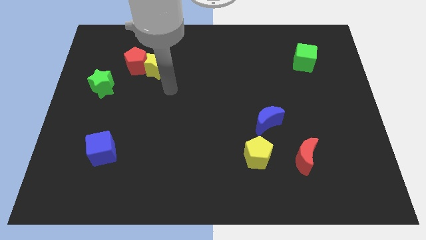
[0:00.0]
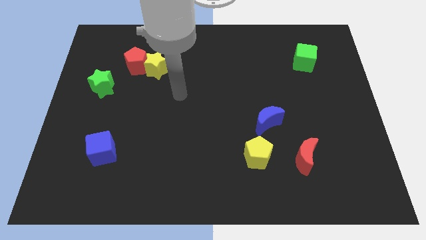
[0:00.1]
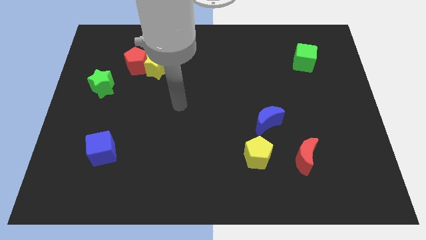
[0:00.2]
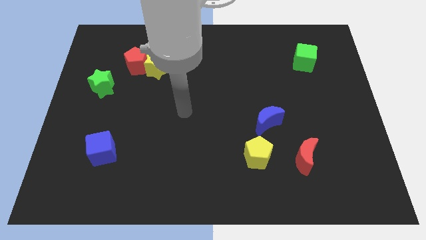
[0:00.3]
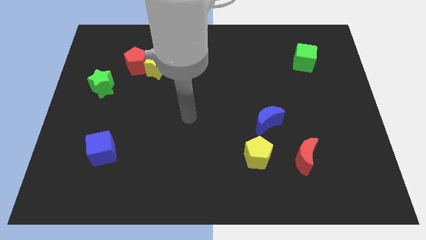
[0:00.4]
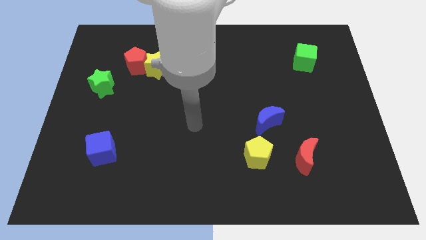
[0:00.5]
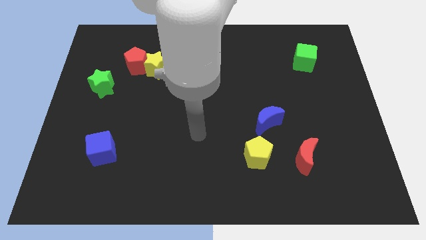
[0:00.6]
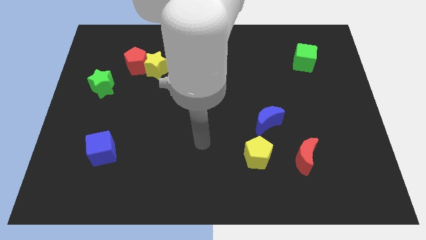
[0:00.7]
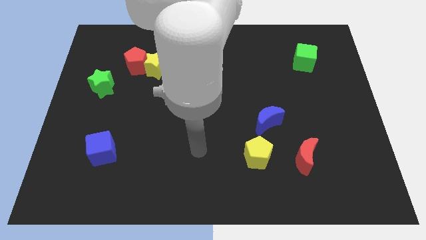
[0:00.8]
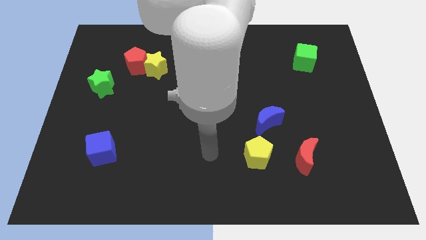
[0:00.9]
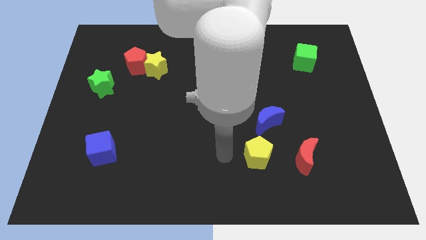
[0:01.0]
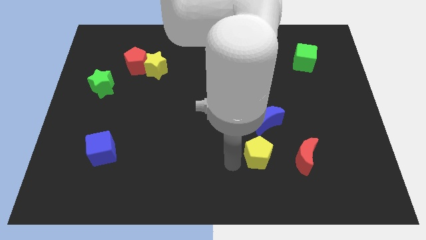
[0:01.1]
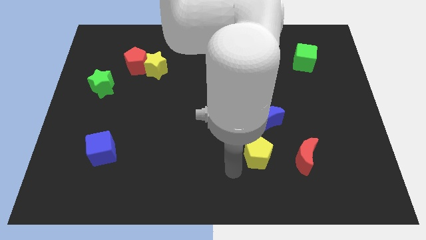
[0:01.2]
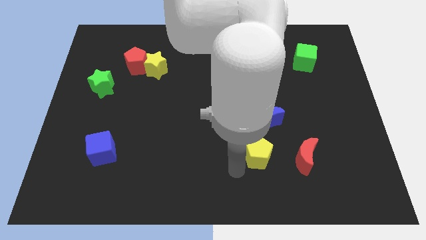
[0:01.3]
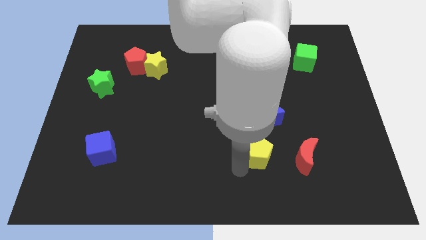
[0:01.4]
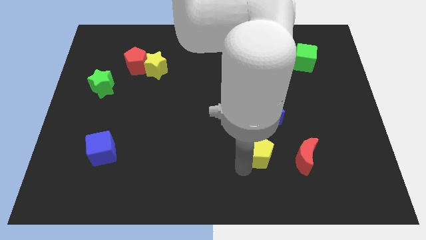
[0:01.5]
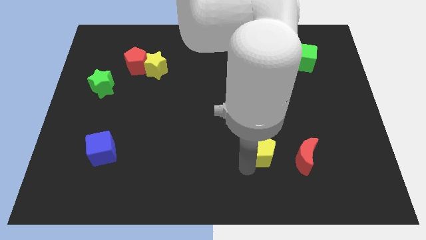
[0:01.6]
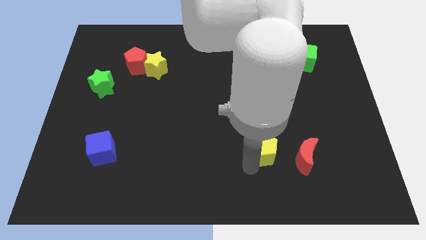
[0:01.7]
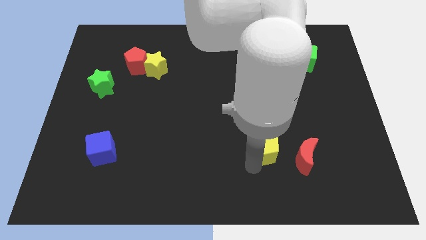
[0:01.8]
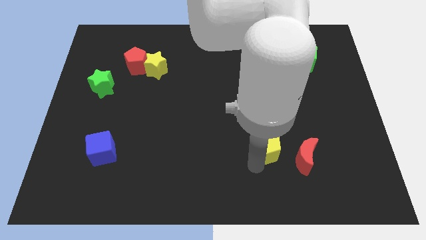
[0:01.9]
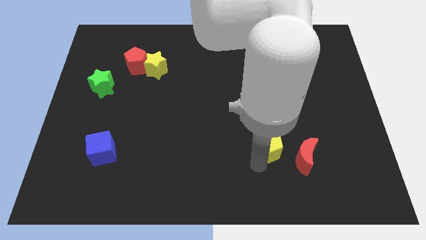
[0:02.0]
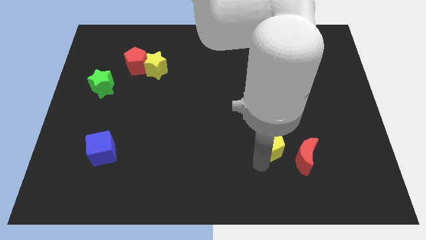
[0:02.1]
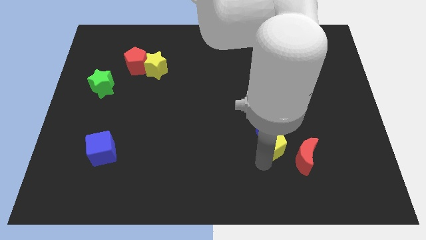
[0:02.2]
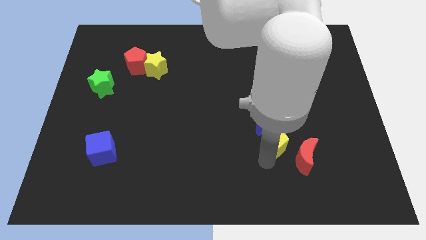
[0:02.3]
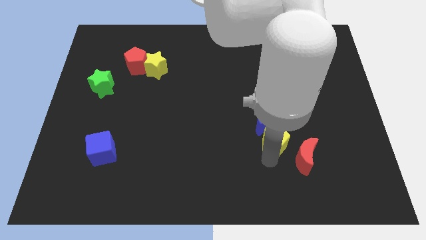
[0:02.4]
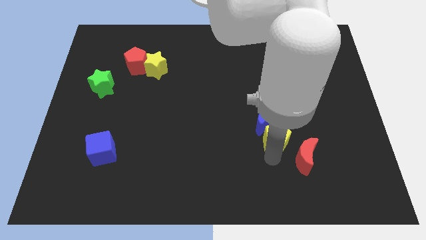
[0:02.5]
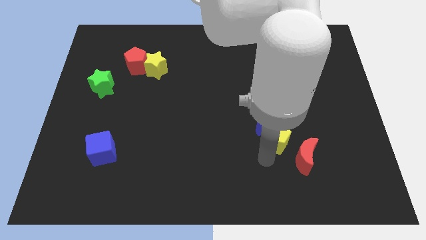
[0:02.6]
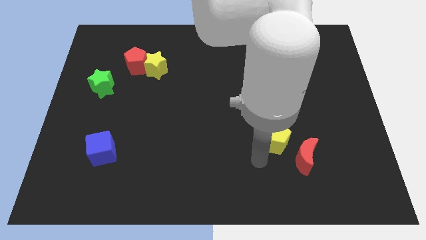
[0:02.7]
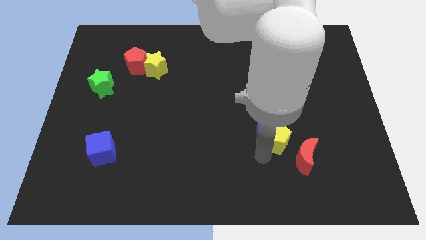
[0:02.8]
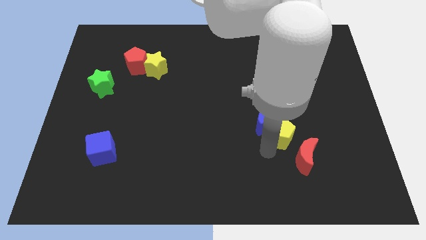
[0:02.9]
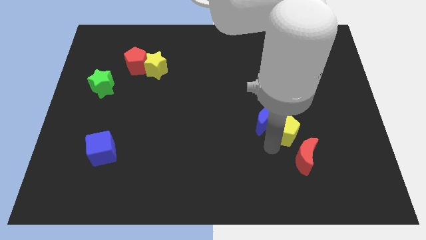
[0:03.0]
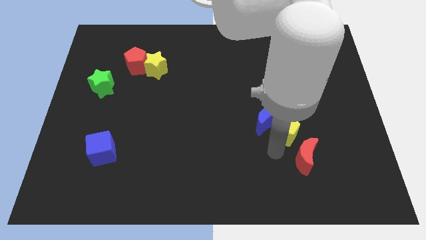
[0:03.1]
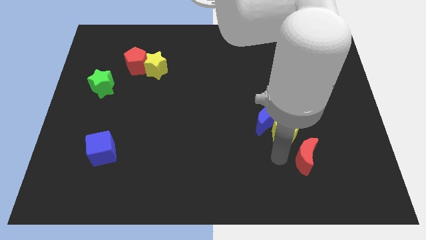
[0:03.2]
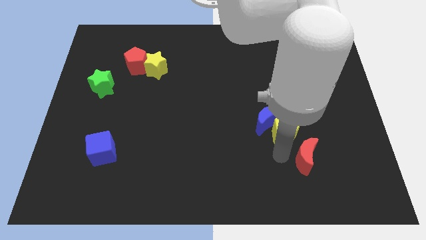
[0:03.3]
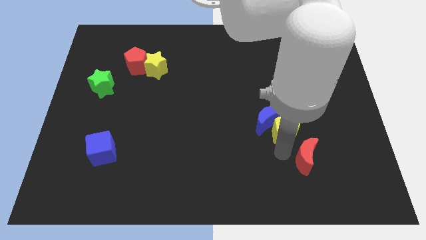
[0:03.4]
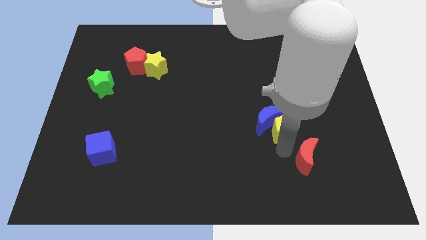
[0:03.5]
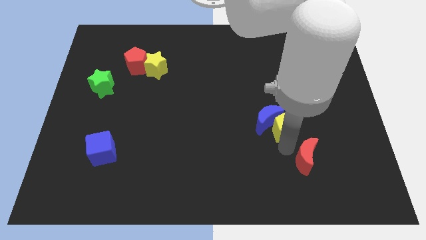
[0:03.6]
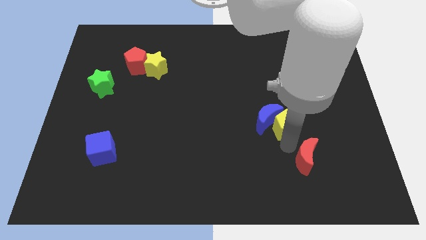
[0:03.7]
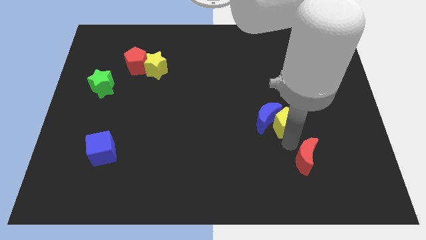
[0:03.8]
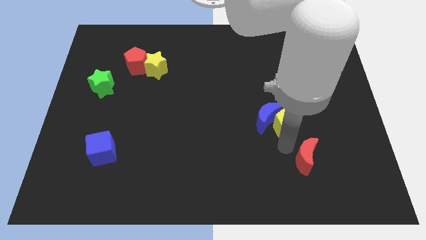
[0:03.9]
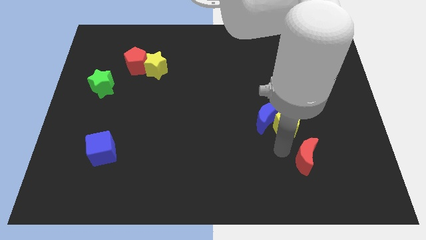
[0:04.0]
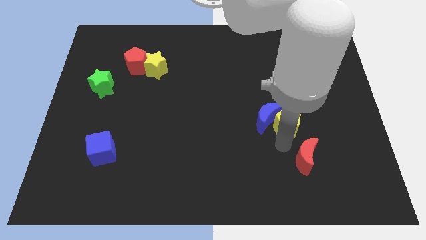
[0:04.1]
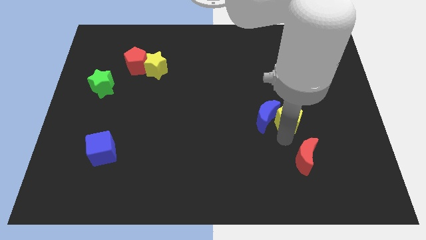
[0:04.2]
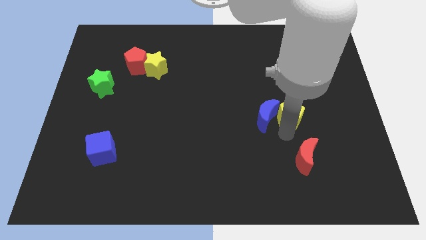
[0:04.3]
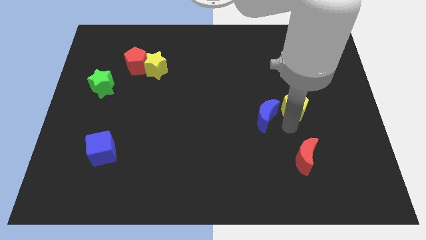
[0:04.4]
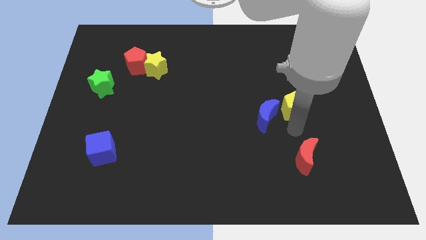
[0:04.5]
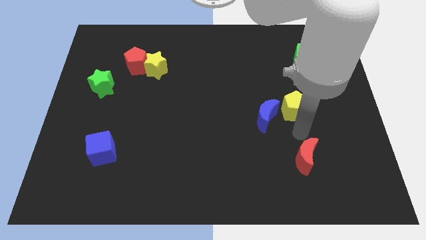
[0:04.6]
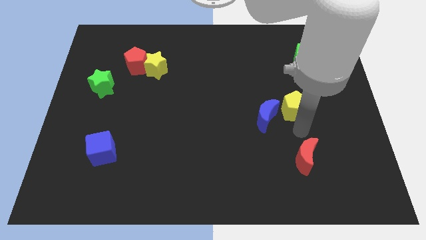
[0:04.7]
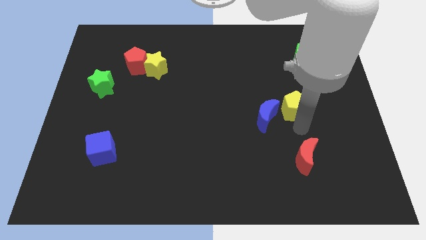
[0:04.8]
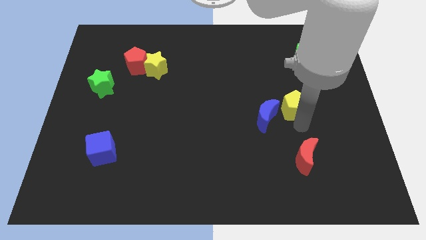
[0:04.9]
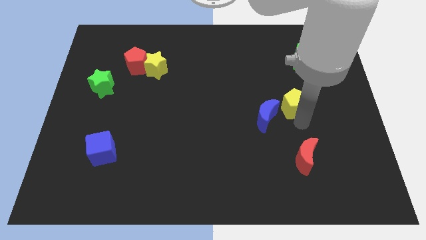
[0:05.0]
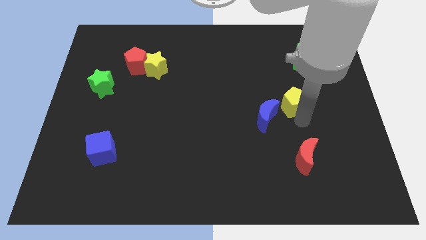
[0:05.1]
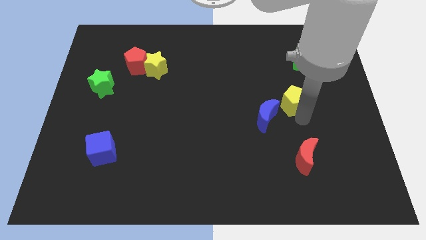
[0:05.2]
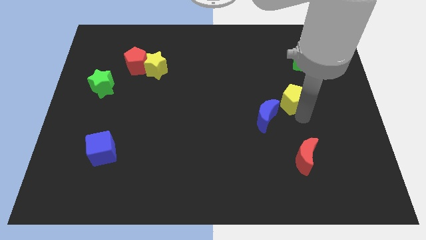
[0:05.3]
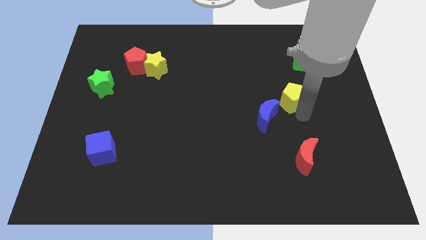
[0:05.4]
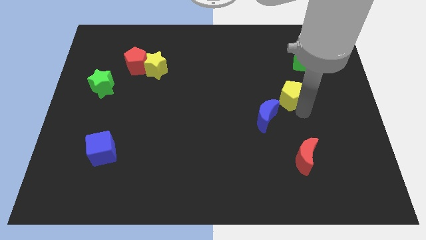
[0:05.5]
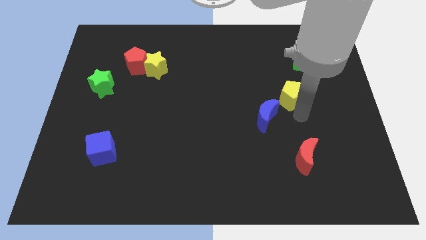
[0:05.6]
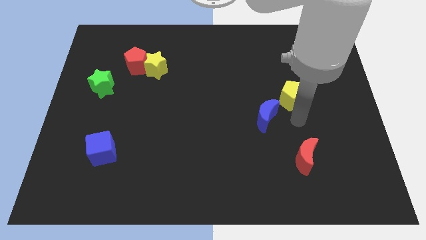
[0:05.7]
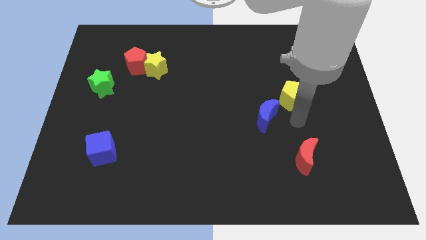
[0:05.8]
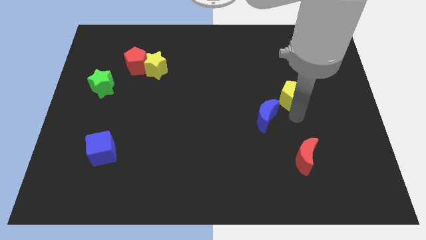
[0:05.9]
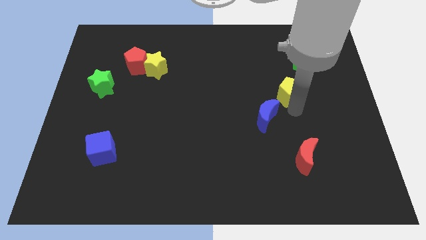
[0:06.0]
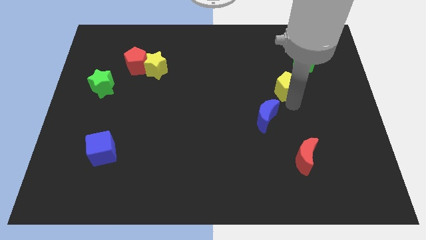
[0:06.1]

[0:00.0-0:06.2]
put the yellow pentagon to the bottom left of the green cube

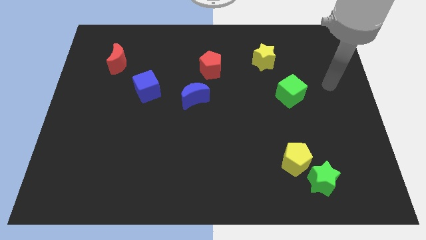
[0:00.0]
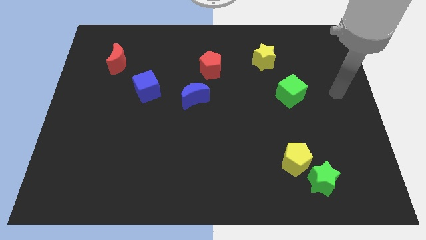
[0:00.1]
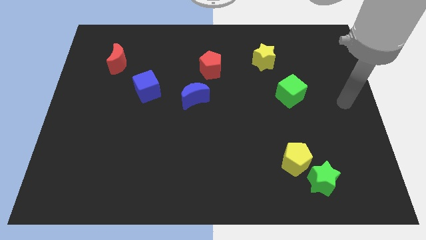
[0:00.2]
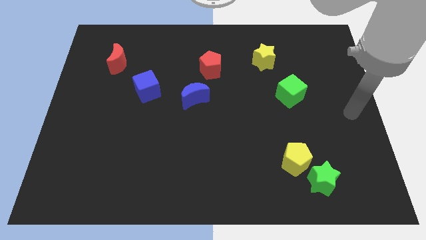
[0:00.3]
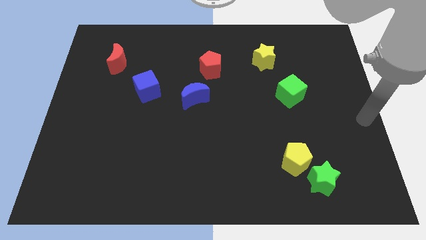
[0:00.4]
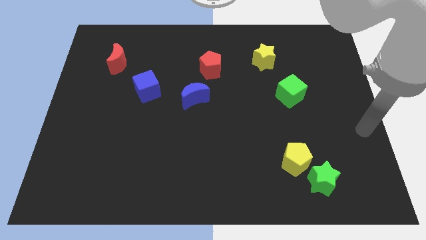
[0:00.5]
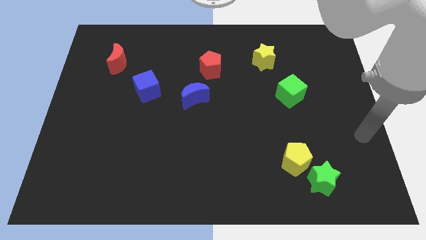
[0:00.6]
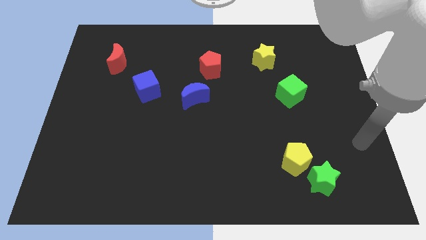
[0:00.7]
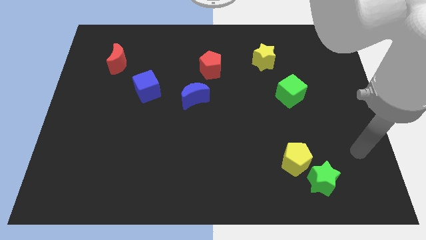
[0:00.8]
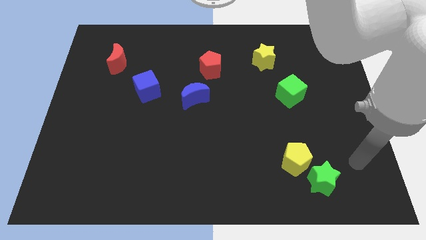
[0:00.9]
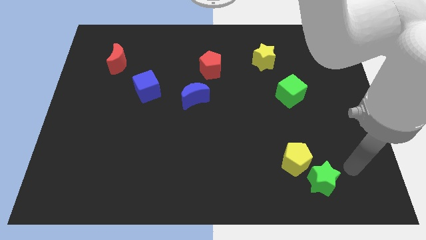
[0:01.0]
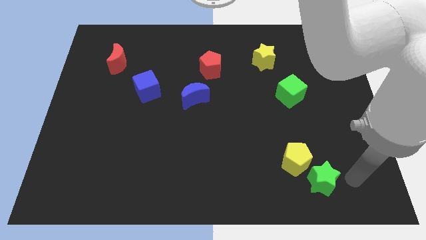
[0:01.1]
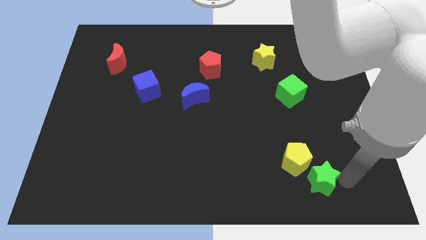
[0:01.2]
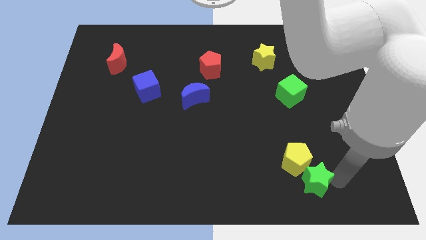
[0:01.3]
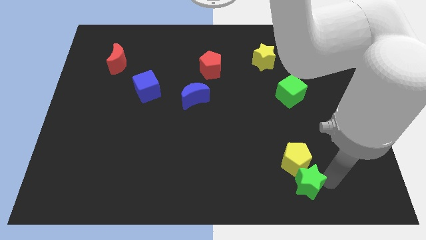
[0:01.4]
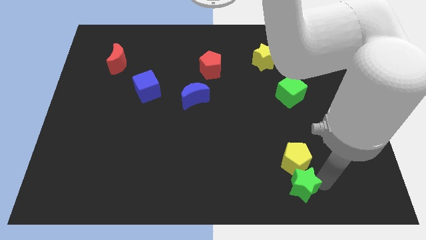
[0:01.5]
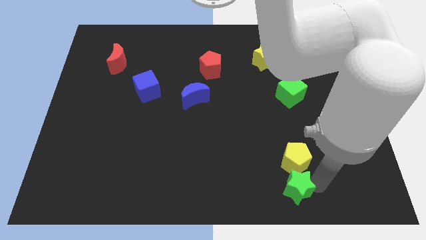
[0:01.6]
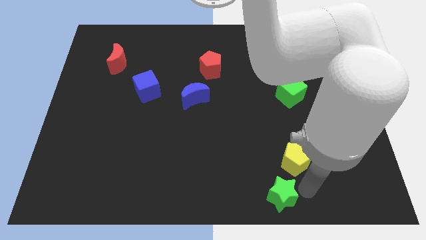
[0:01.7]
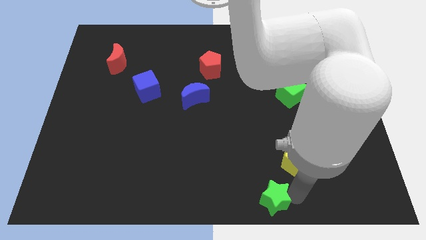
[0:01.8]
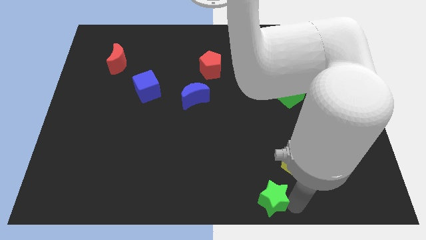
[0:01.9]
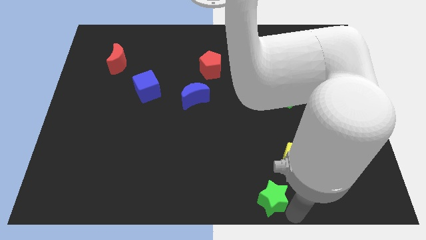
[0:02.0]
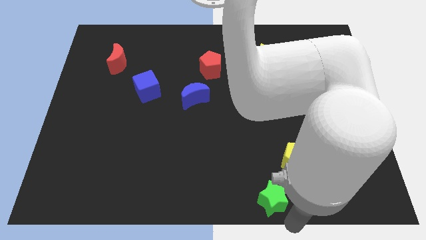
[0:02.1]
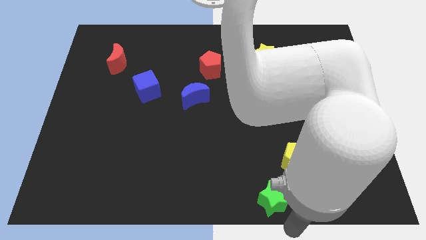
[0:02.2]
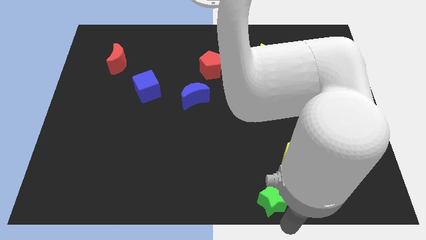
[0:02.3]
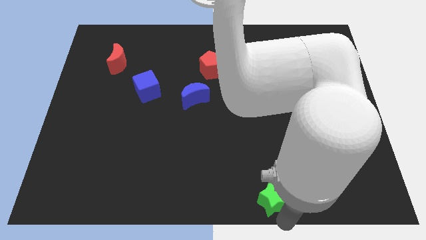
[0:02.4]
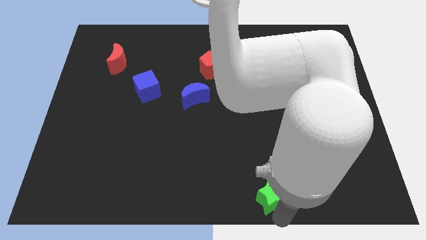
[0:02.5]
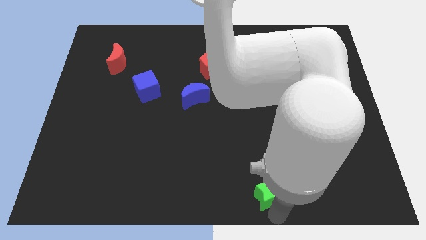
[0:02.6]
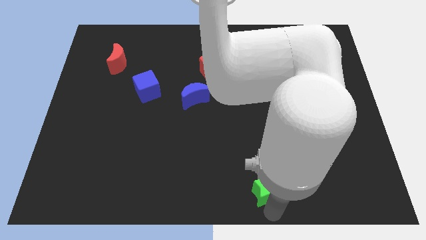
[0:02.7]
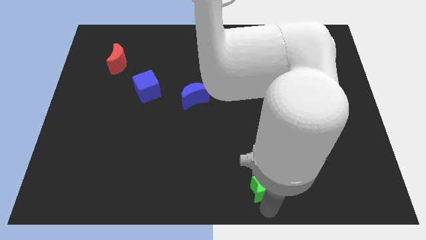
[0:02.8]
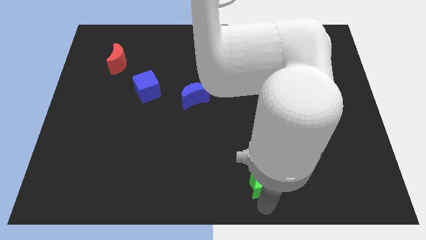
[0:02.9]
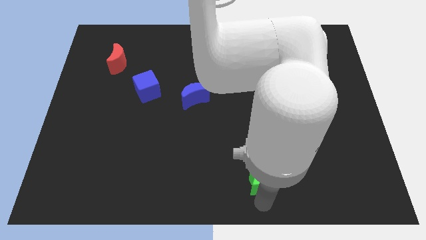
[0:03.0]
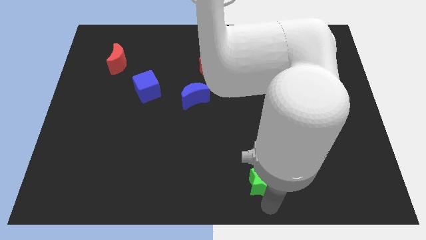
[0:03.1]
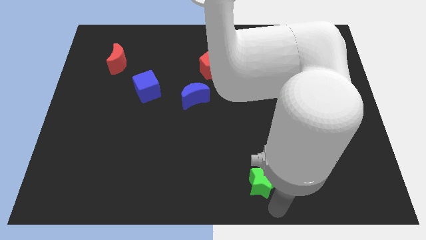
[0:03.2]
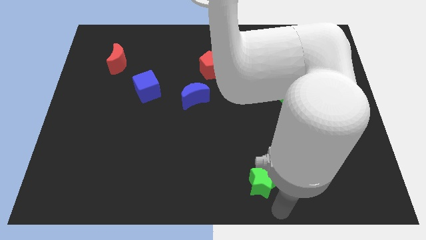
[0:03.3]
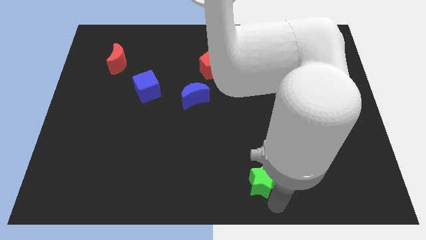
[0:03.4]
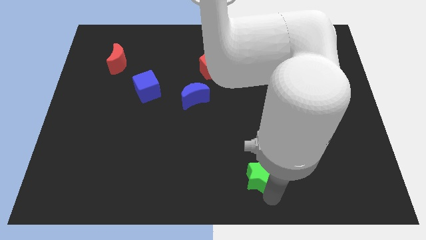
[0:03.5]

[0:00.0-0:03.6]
push the green star left of the yellow pentagon
